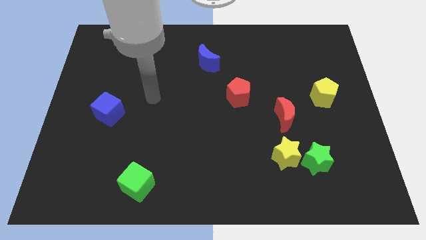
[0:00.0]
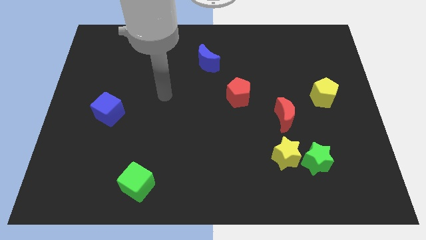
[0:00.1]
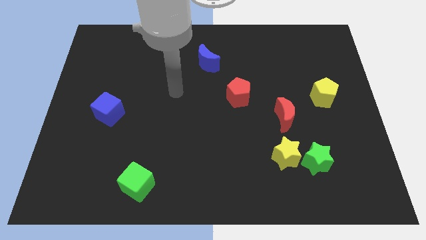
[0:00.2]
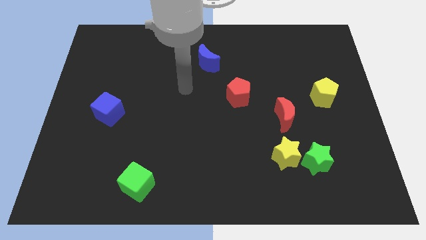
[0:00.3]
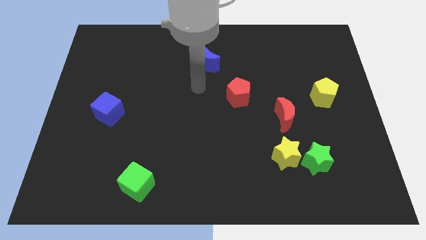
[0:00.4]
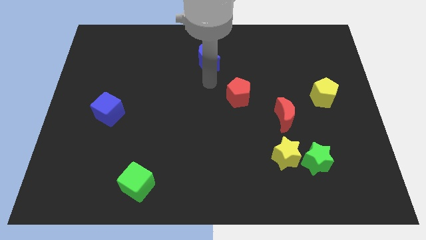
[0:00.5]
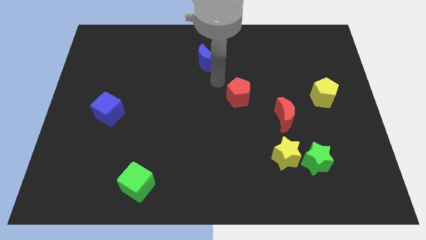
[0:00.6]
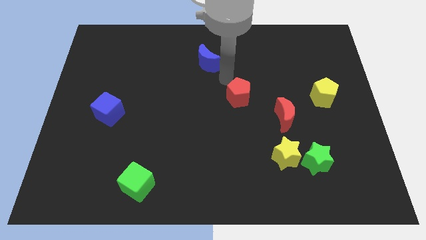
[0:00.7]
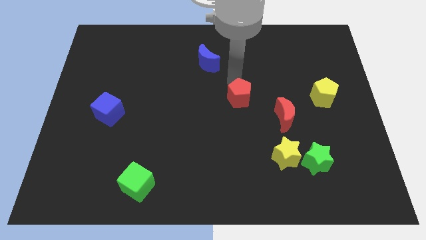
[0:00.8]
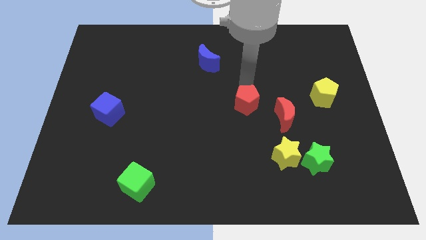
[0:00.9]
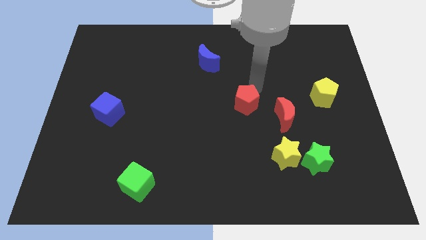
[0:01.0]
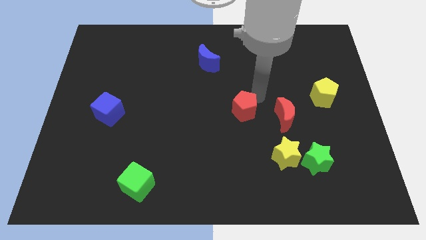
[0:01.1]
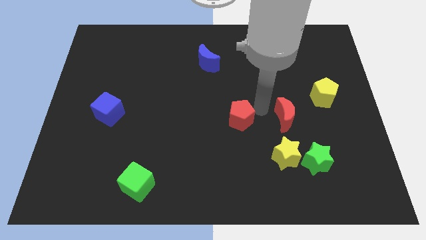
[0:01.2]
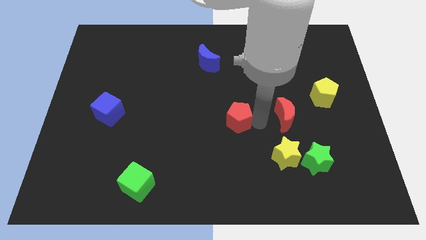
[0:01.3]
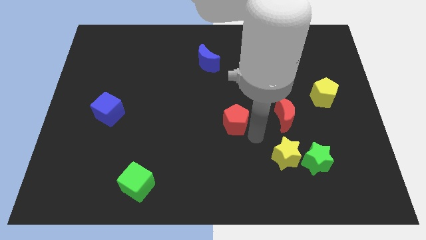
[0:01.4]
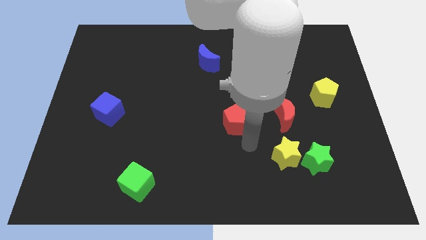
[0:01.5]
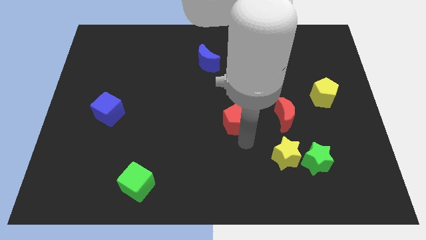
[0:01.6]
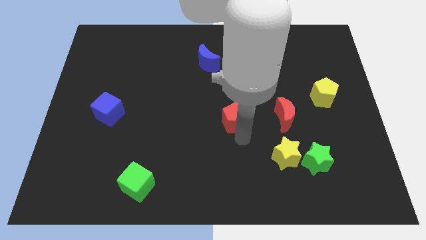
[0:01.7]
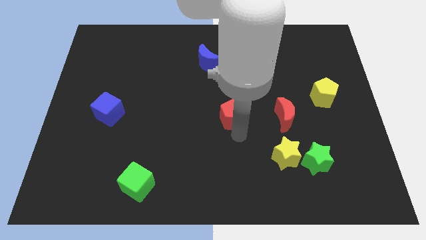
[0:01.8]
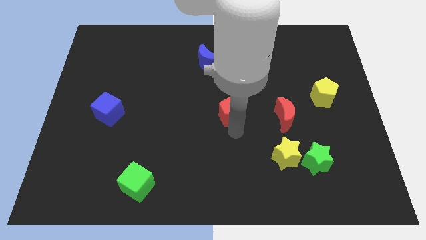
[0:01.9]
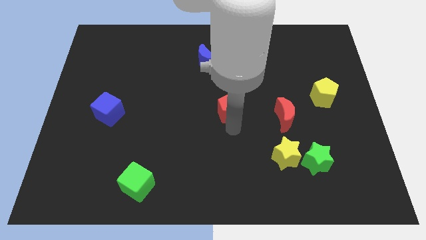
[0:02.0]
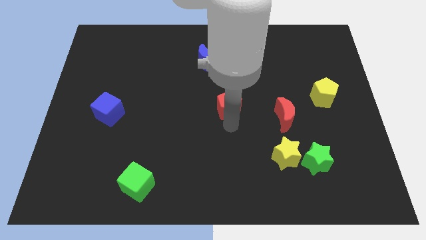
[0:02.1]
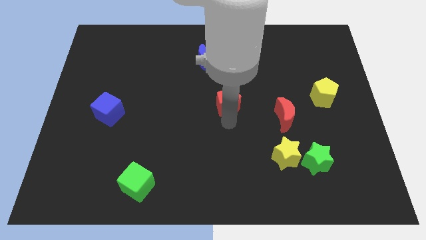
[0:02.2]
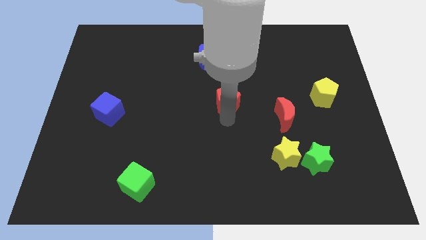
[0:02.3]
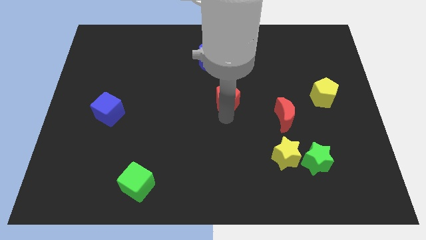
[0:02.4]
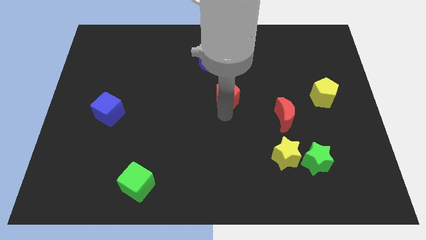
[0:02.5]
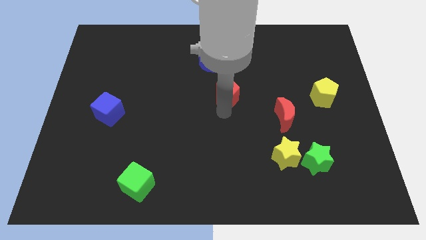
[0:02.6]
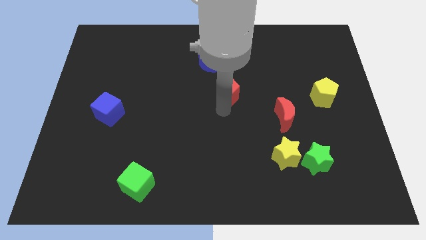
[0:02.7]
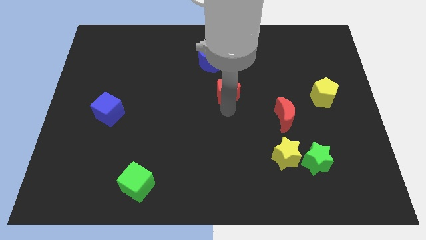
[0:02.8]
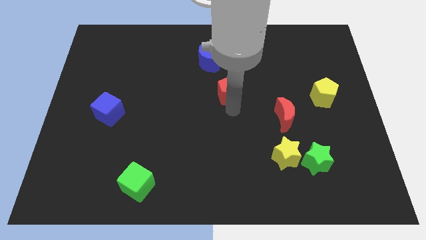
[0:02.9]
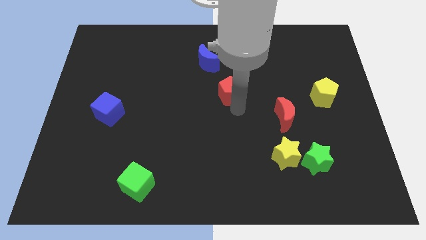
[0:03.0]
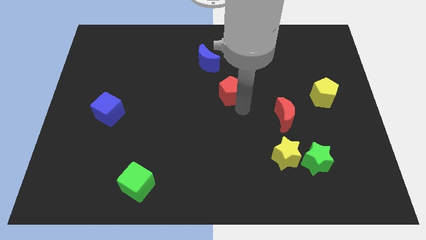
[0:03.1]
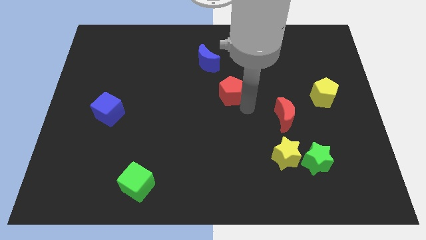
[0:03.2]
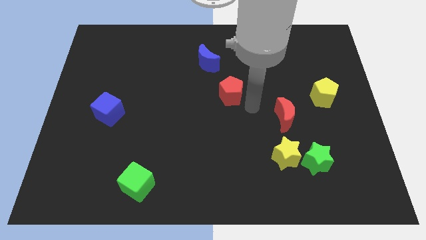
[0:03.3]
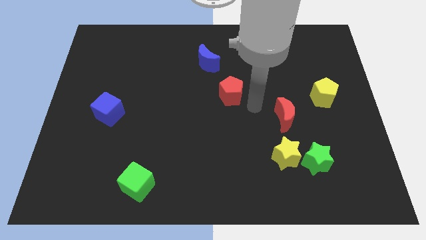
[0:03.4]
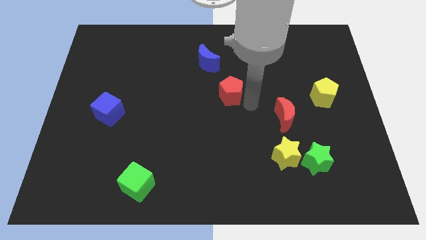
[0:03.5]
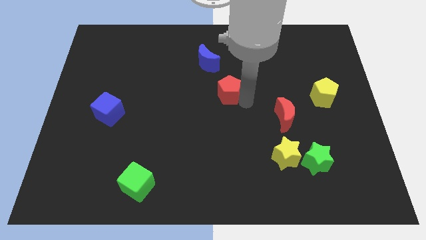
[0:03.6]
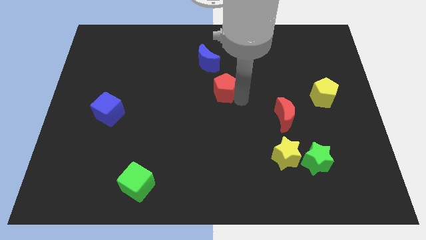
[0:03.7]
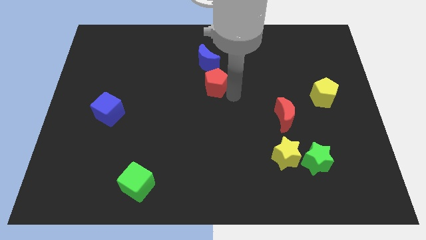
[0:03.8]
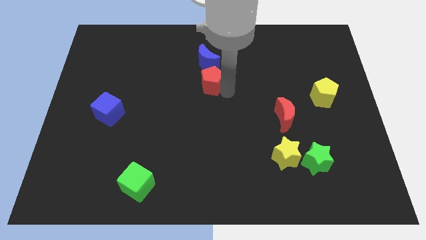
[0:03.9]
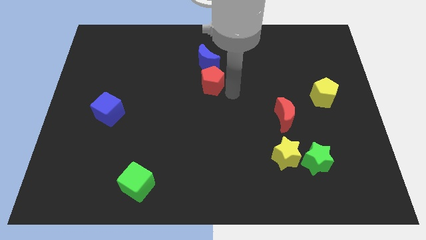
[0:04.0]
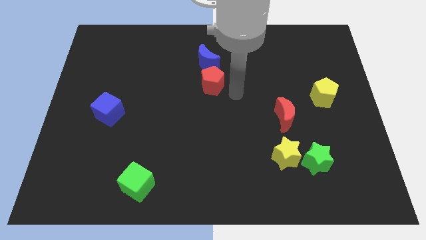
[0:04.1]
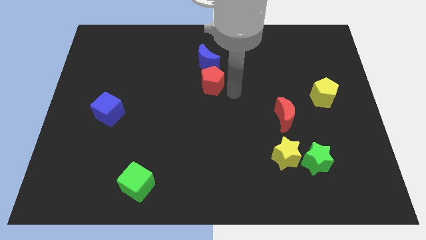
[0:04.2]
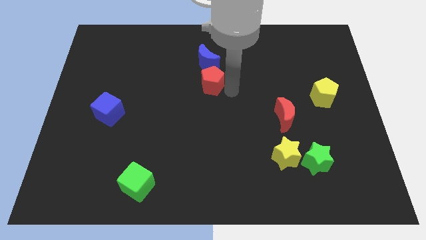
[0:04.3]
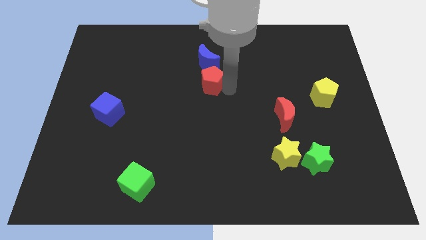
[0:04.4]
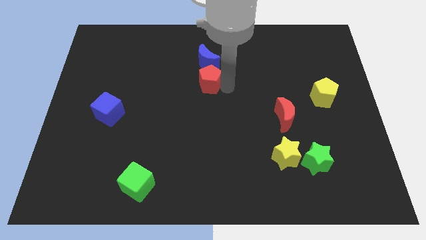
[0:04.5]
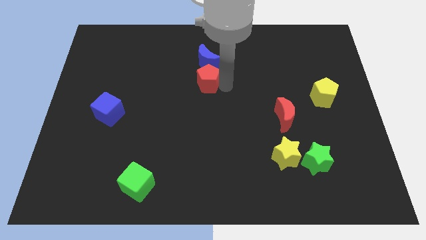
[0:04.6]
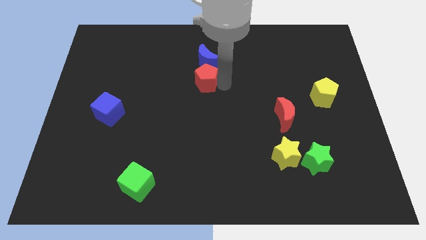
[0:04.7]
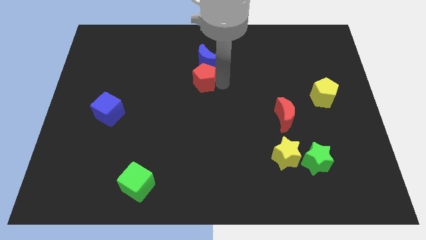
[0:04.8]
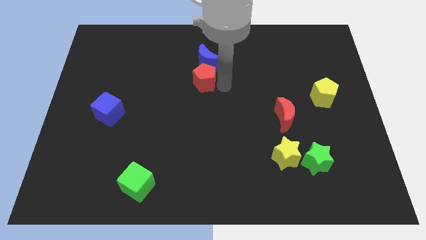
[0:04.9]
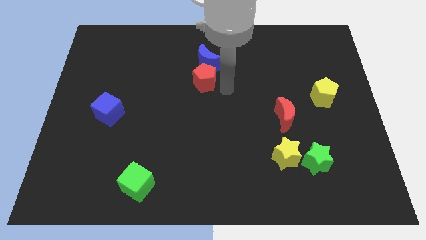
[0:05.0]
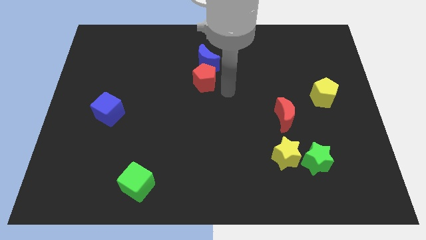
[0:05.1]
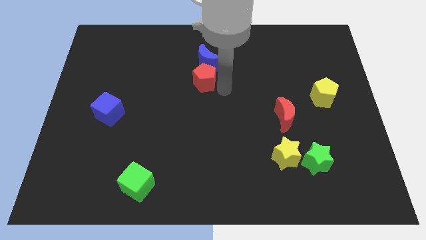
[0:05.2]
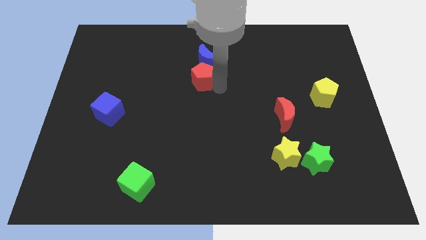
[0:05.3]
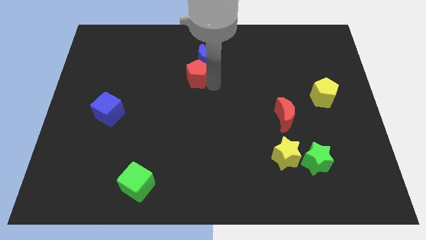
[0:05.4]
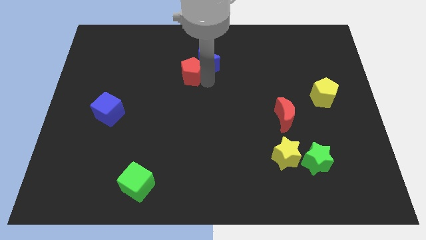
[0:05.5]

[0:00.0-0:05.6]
push the red pentagon left of the blue moon

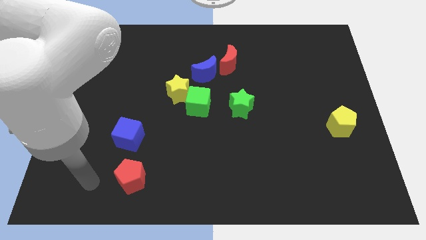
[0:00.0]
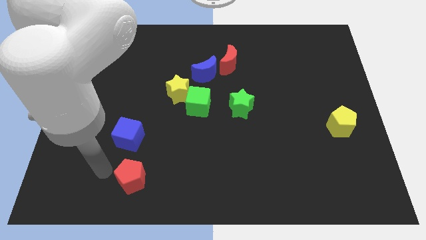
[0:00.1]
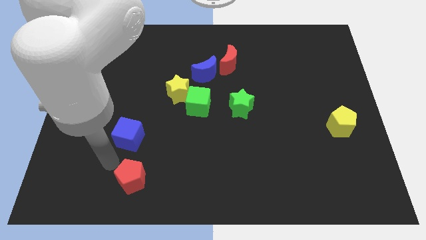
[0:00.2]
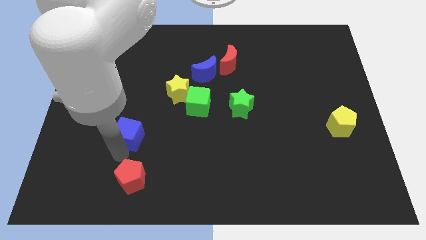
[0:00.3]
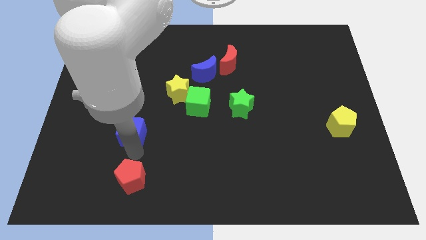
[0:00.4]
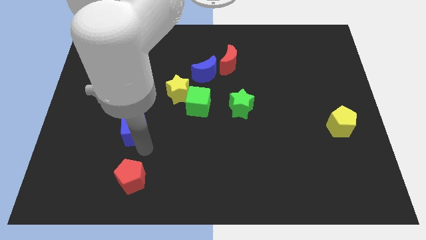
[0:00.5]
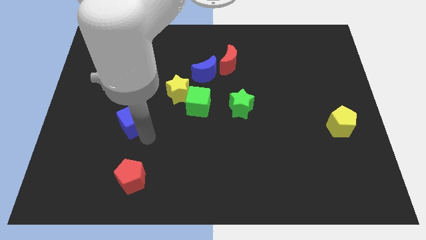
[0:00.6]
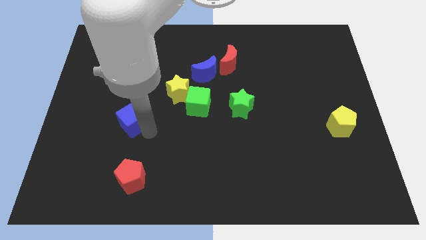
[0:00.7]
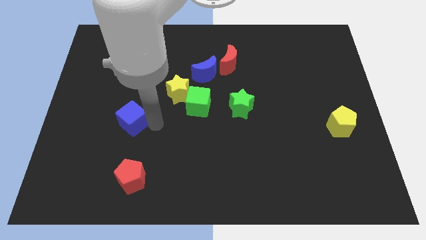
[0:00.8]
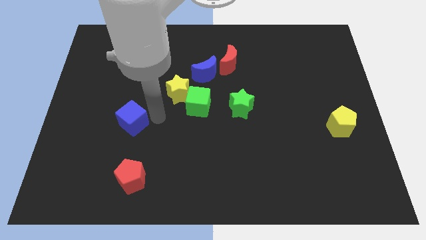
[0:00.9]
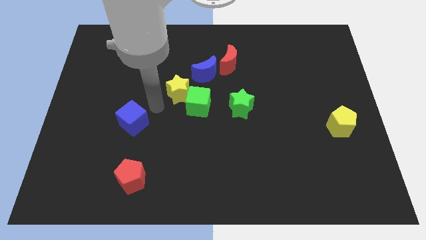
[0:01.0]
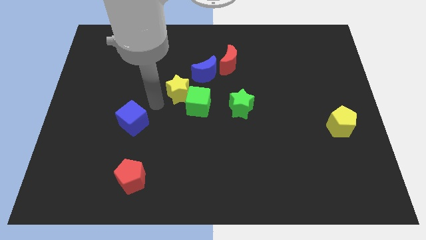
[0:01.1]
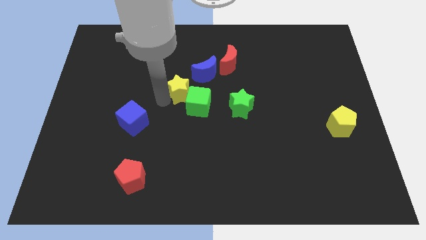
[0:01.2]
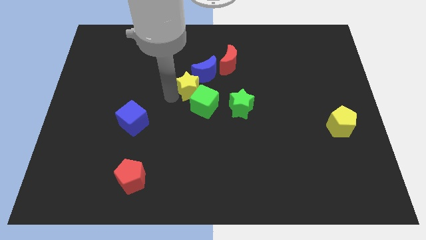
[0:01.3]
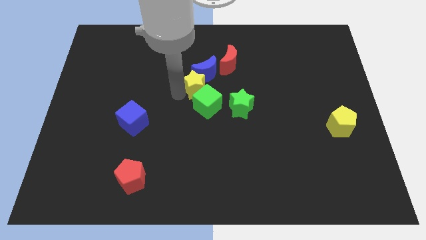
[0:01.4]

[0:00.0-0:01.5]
push the yellow star to the bottom left of the red moon
